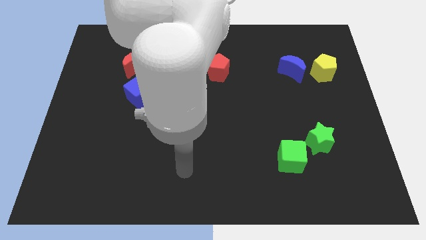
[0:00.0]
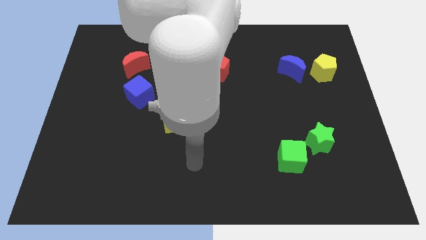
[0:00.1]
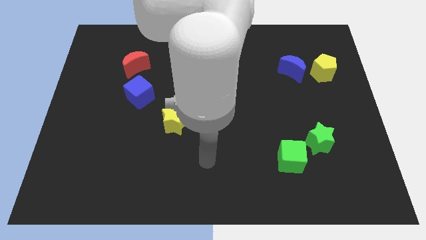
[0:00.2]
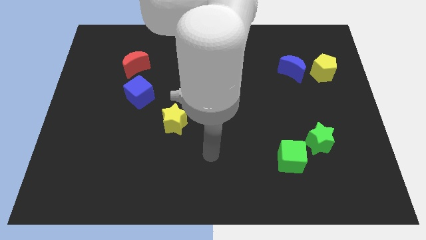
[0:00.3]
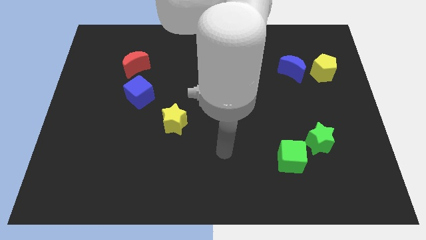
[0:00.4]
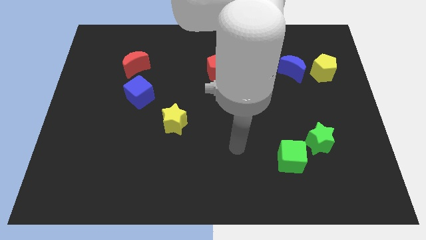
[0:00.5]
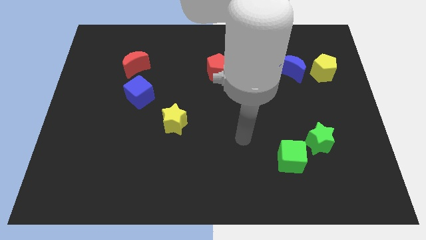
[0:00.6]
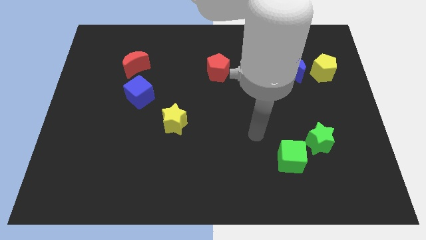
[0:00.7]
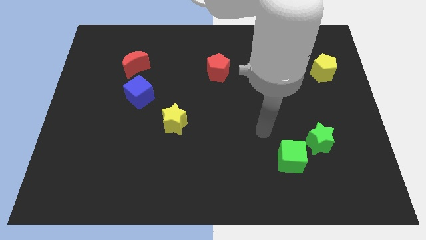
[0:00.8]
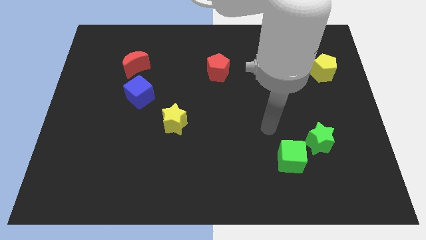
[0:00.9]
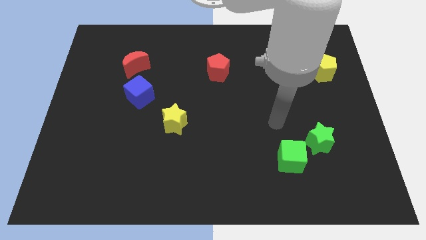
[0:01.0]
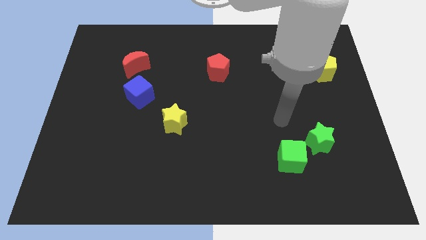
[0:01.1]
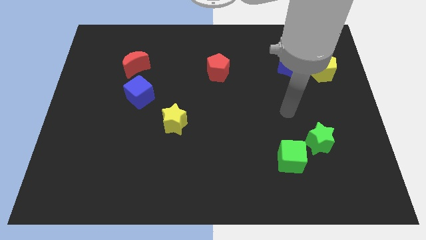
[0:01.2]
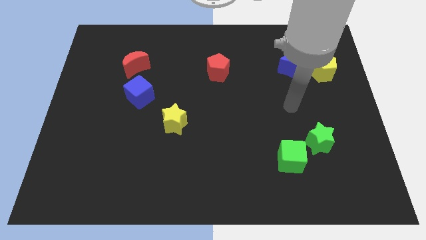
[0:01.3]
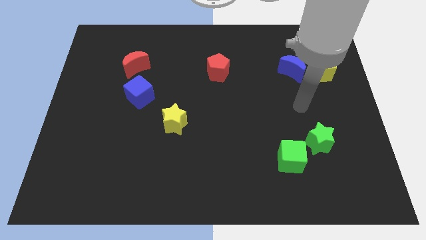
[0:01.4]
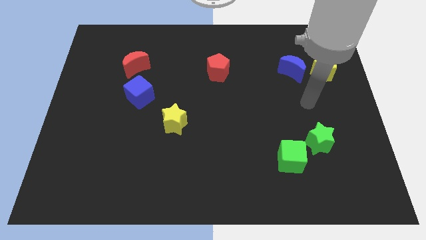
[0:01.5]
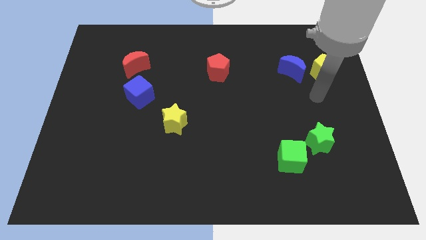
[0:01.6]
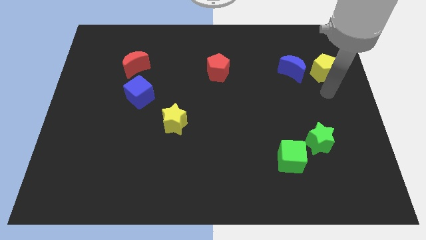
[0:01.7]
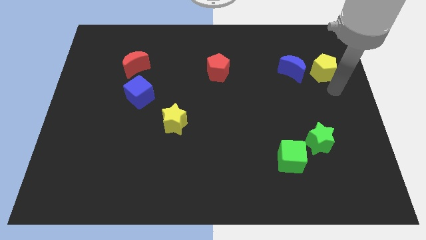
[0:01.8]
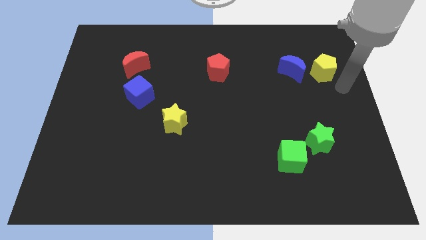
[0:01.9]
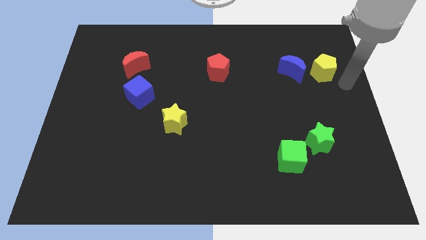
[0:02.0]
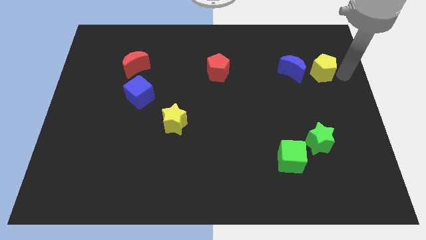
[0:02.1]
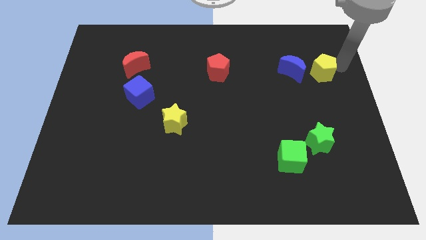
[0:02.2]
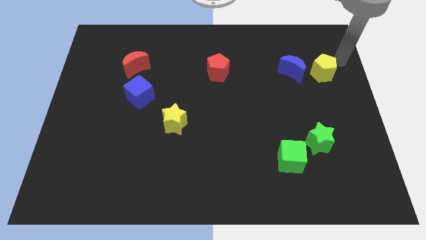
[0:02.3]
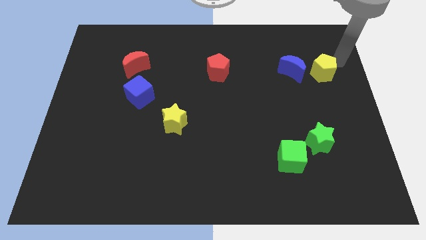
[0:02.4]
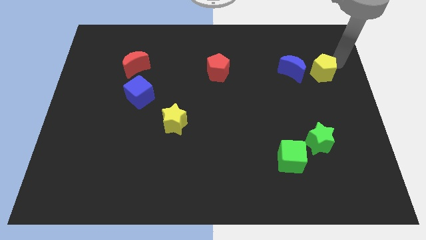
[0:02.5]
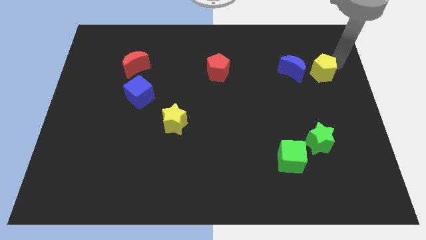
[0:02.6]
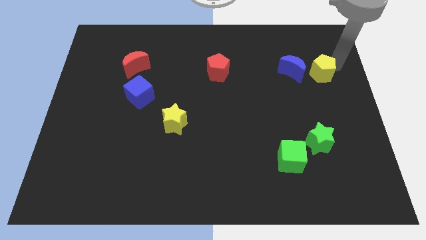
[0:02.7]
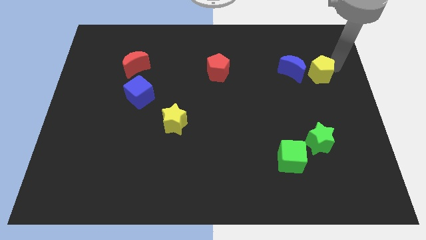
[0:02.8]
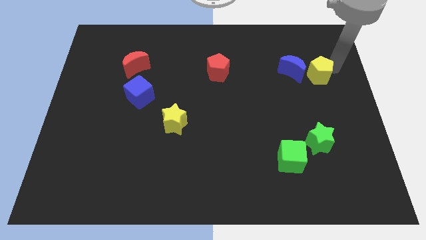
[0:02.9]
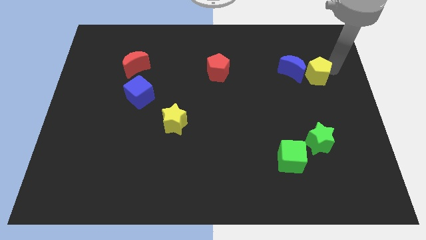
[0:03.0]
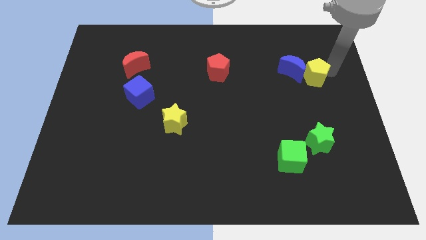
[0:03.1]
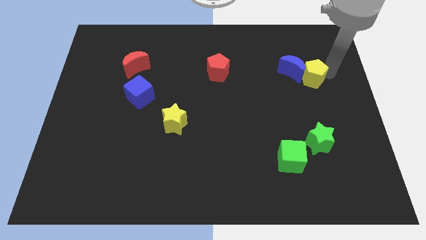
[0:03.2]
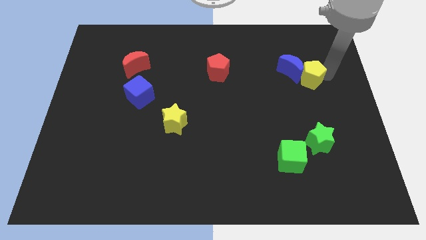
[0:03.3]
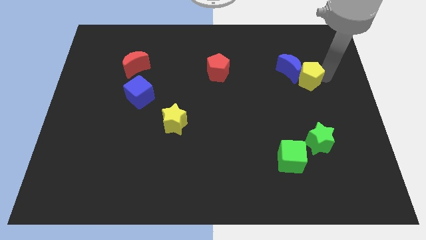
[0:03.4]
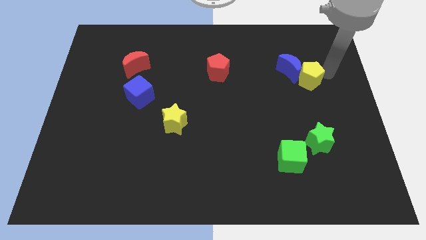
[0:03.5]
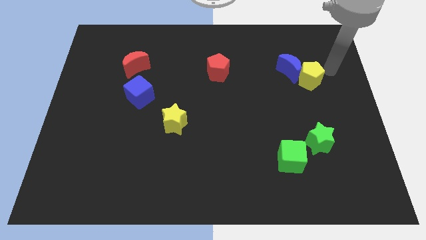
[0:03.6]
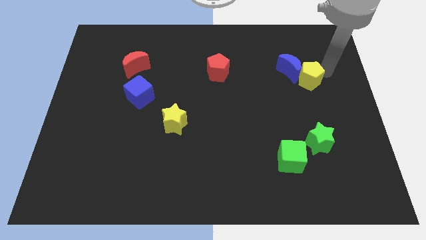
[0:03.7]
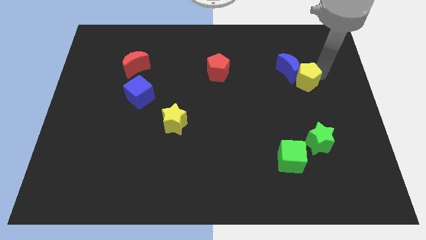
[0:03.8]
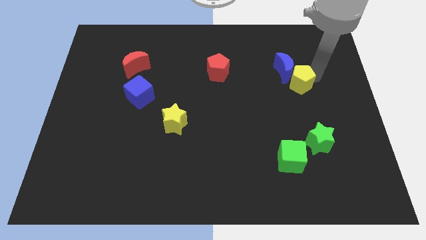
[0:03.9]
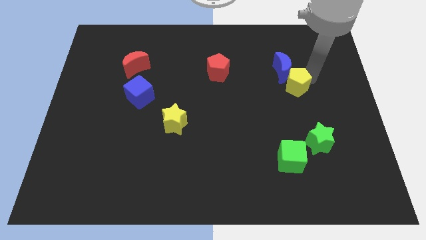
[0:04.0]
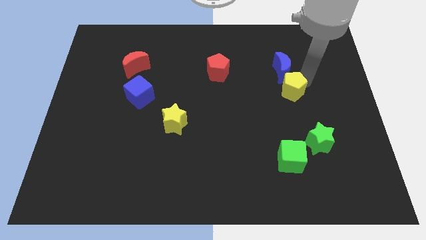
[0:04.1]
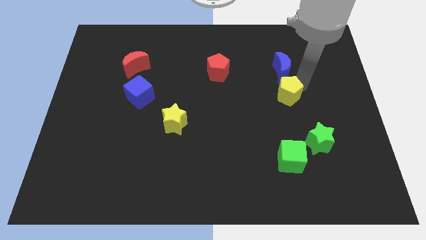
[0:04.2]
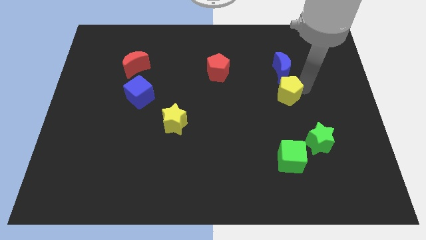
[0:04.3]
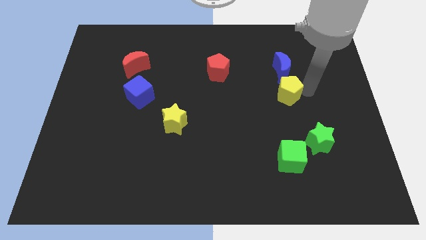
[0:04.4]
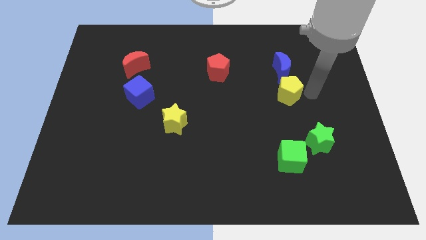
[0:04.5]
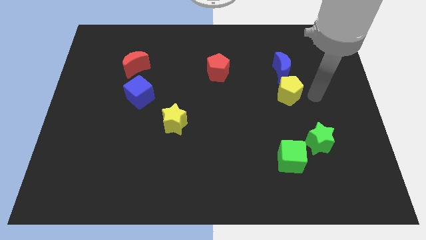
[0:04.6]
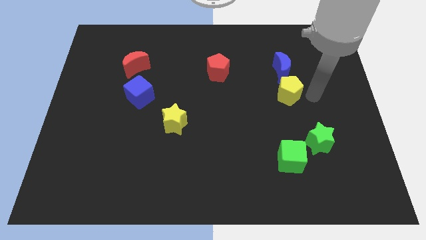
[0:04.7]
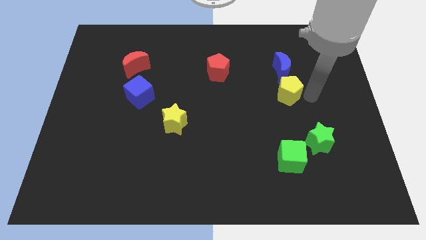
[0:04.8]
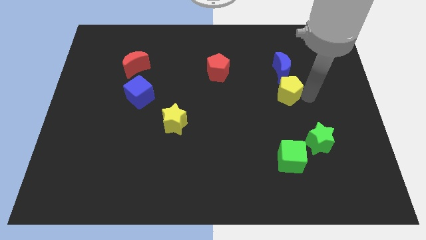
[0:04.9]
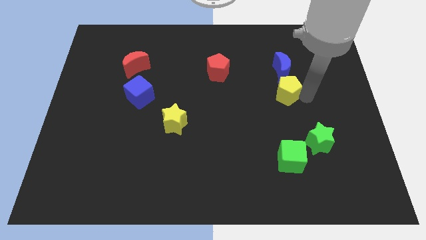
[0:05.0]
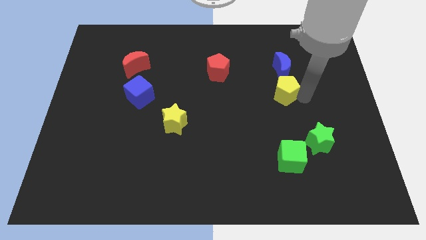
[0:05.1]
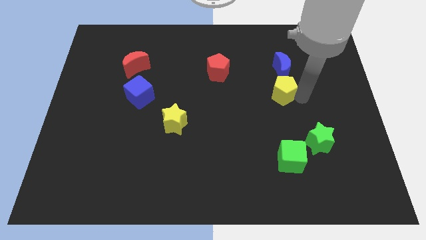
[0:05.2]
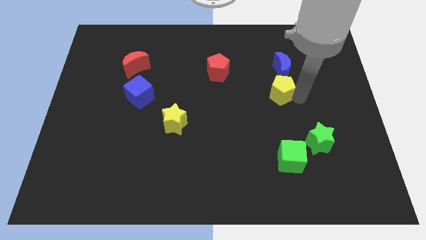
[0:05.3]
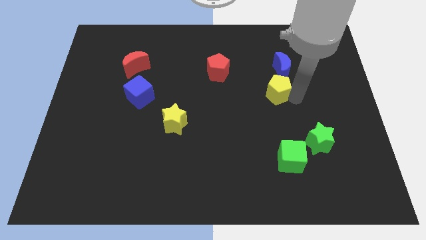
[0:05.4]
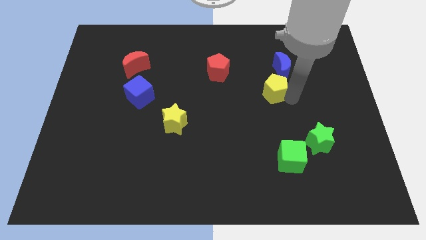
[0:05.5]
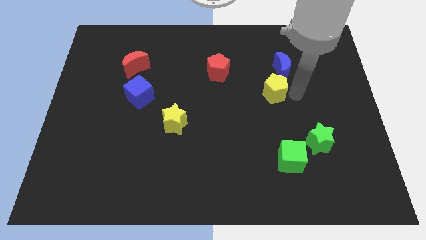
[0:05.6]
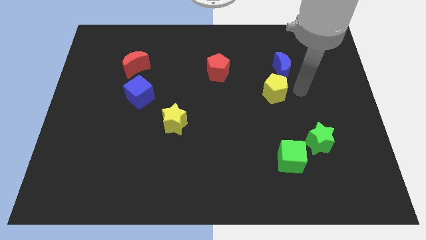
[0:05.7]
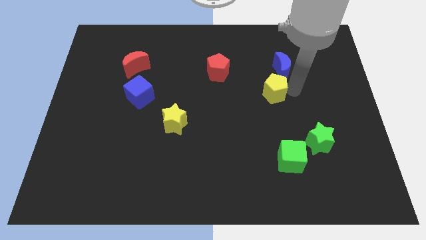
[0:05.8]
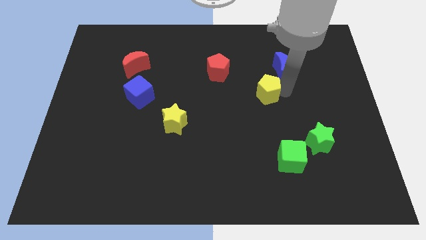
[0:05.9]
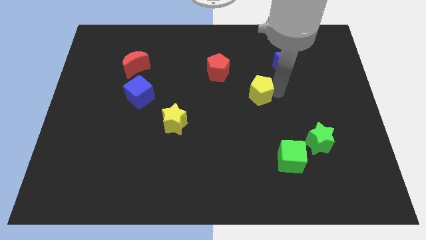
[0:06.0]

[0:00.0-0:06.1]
push the yellow pentagon to the middle of the board
